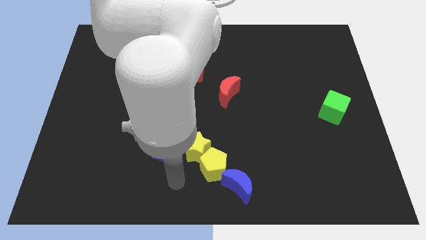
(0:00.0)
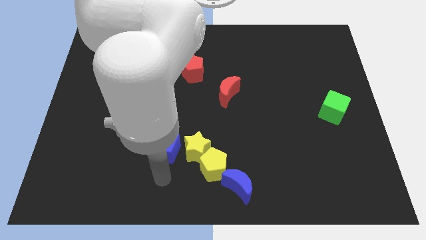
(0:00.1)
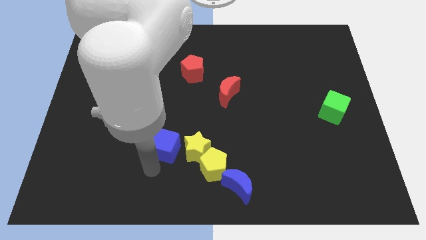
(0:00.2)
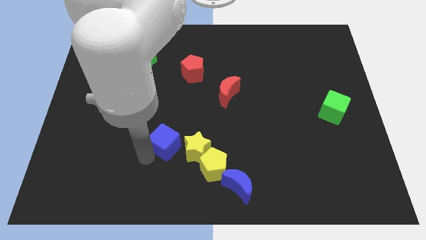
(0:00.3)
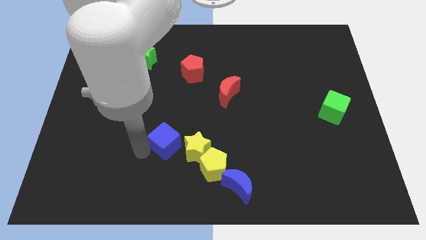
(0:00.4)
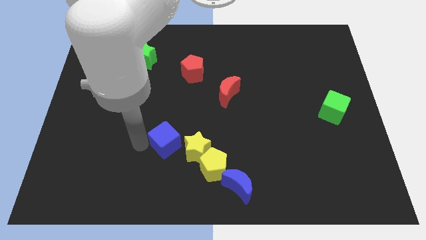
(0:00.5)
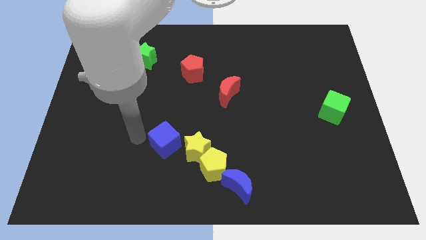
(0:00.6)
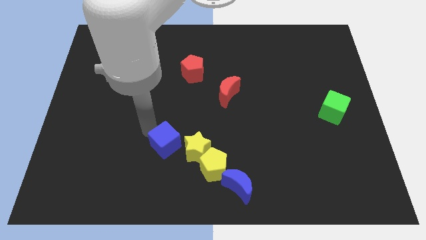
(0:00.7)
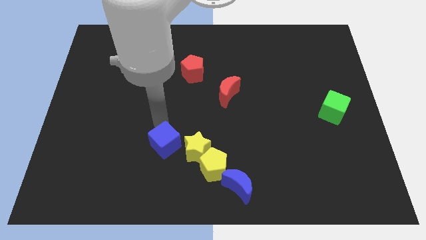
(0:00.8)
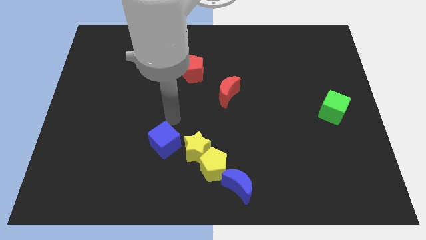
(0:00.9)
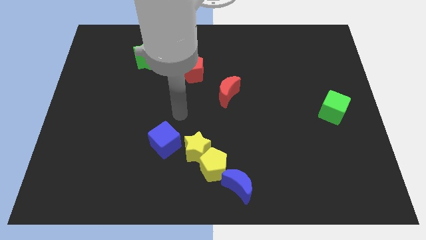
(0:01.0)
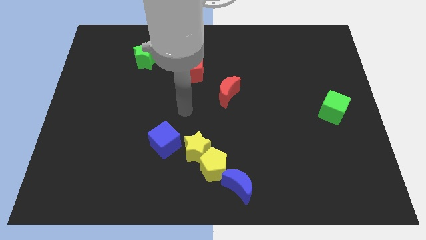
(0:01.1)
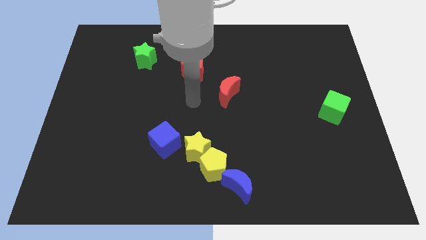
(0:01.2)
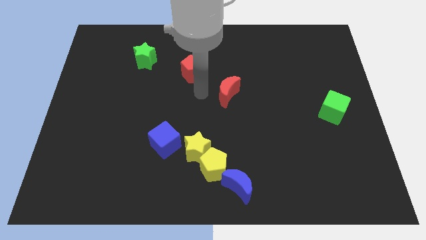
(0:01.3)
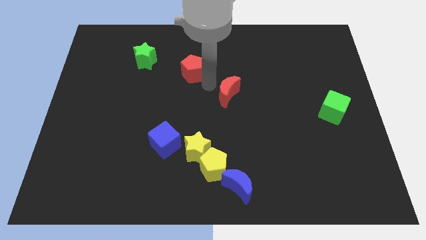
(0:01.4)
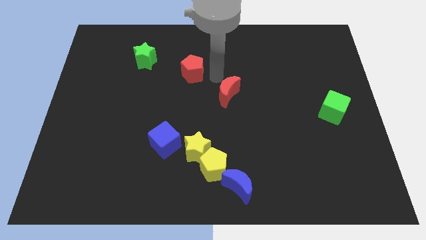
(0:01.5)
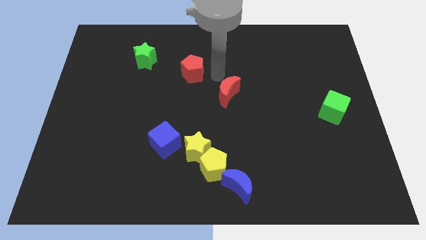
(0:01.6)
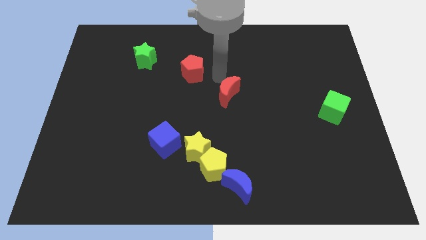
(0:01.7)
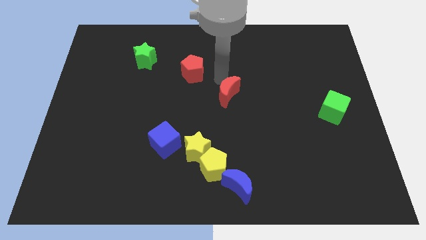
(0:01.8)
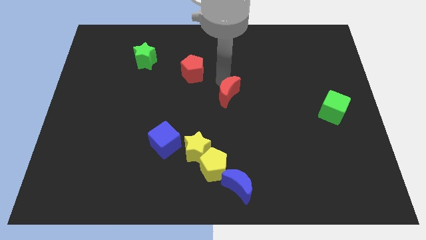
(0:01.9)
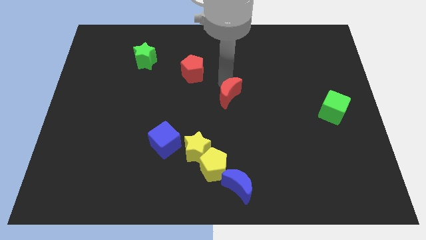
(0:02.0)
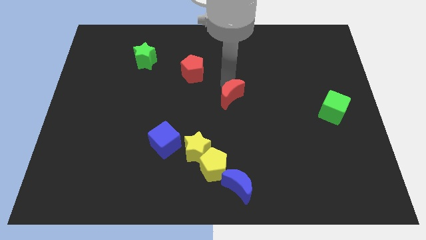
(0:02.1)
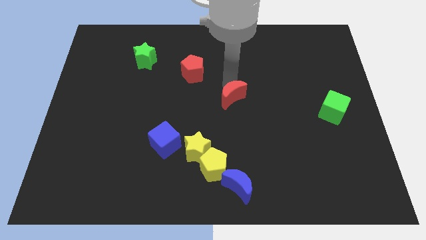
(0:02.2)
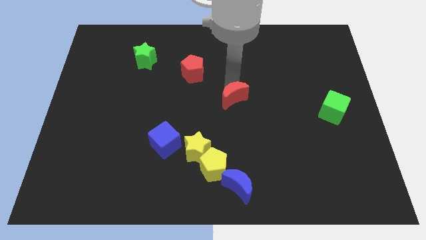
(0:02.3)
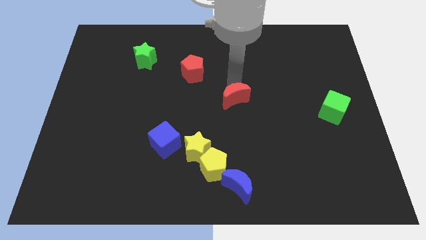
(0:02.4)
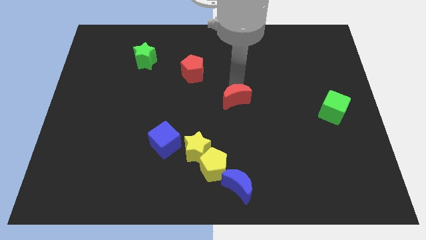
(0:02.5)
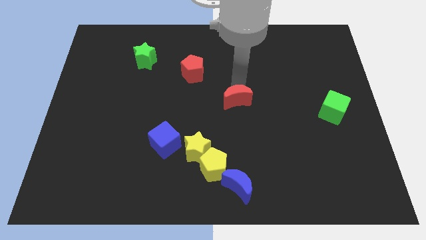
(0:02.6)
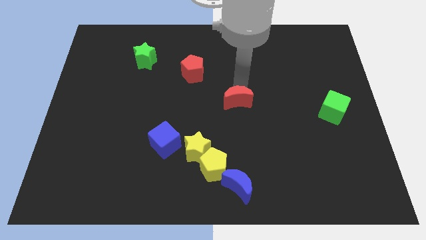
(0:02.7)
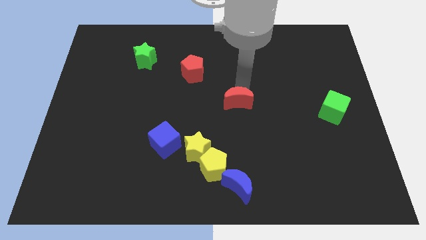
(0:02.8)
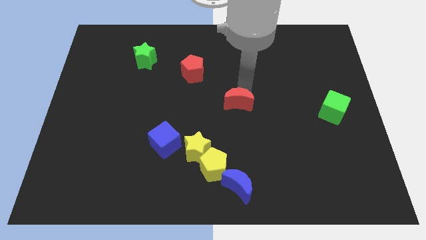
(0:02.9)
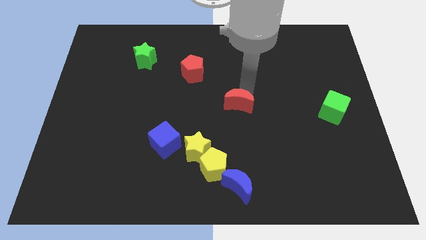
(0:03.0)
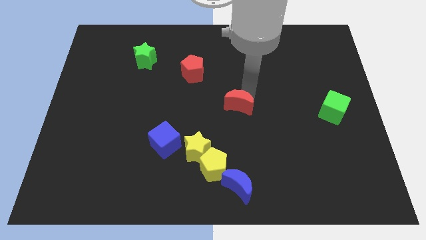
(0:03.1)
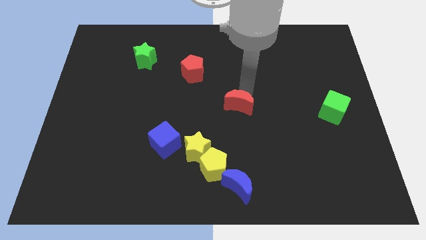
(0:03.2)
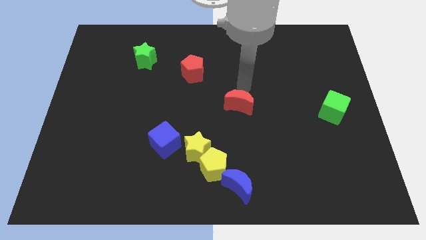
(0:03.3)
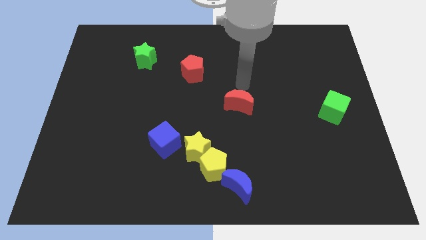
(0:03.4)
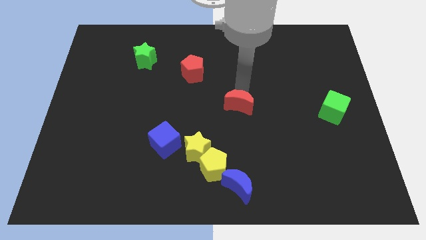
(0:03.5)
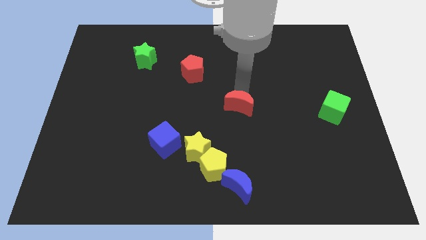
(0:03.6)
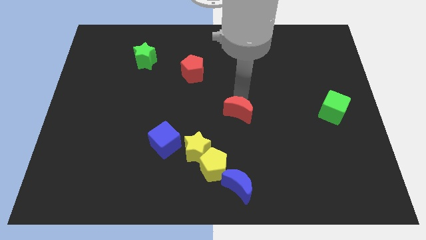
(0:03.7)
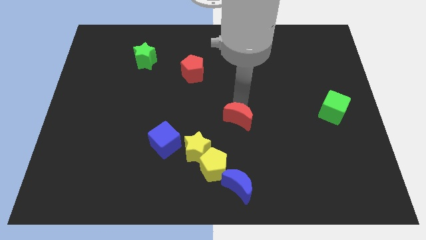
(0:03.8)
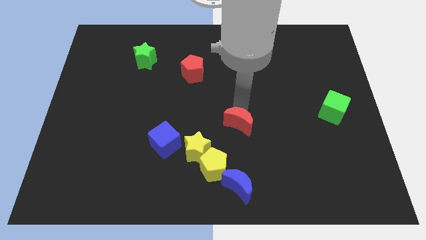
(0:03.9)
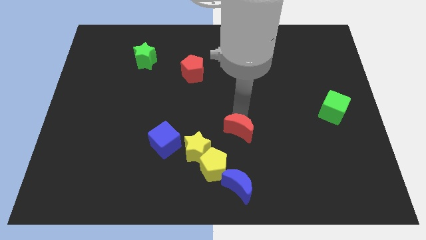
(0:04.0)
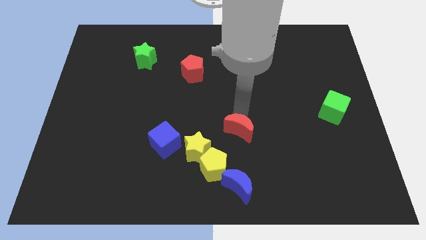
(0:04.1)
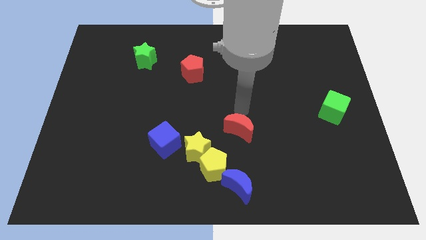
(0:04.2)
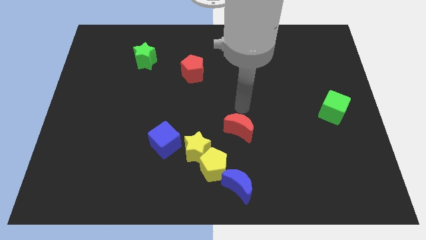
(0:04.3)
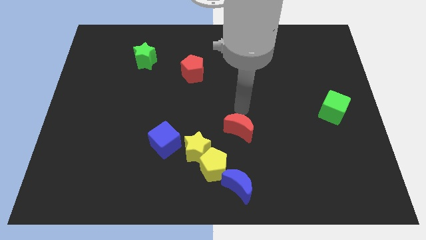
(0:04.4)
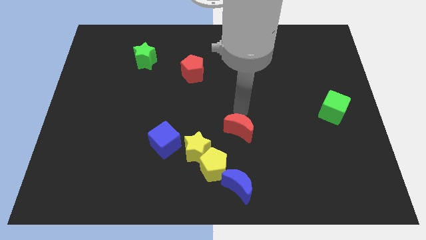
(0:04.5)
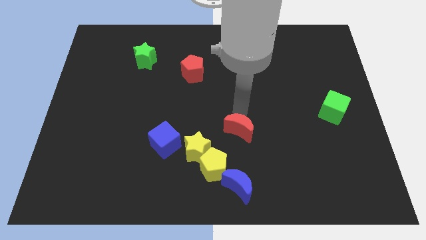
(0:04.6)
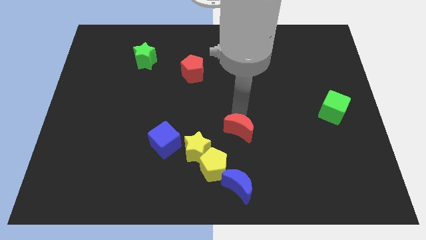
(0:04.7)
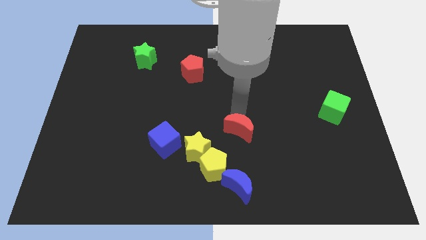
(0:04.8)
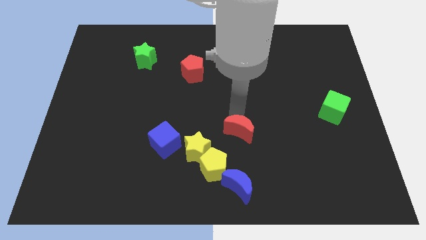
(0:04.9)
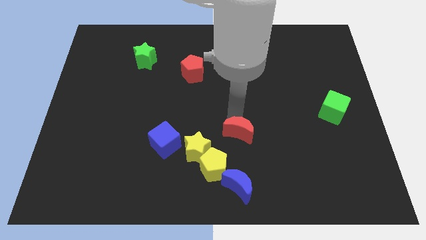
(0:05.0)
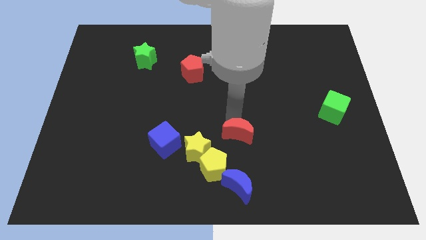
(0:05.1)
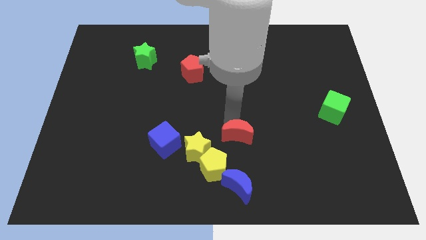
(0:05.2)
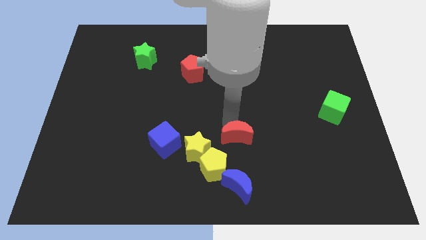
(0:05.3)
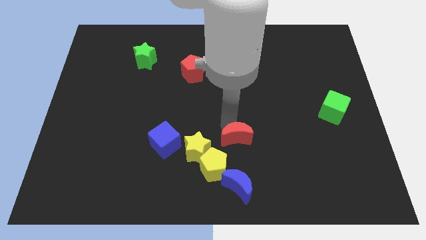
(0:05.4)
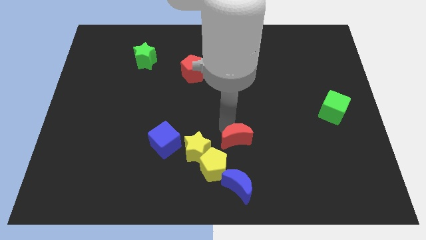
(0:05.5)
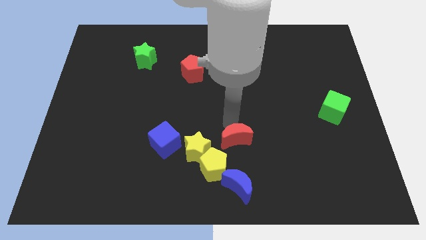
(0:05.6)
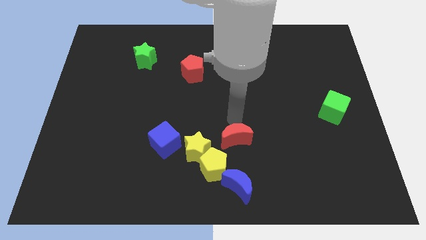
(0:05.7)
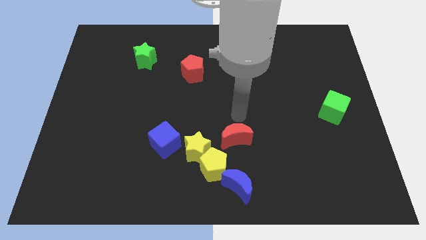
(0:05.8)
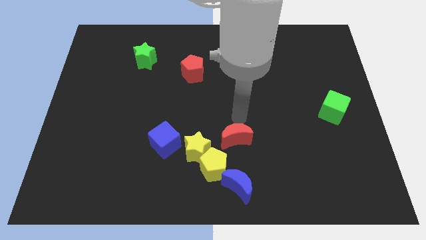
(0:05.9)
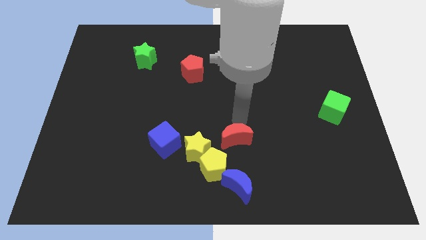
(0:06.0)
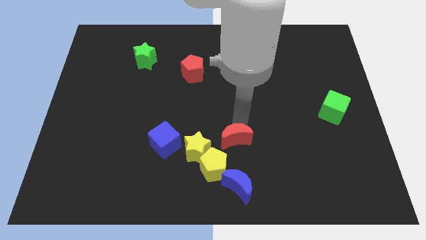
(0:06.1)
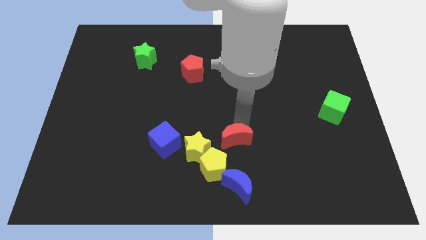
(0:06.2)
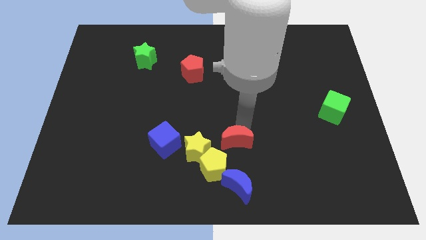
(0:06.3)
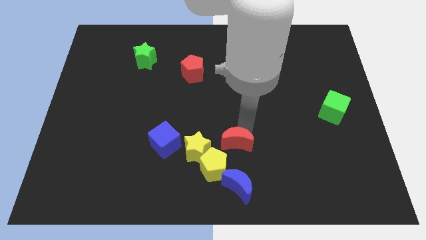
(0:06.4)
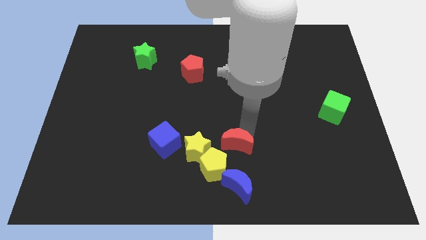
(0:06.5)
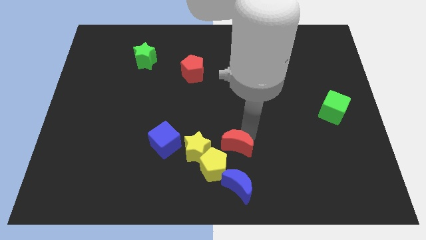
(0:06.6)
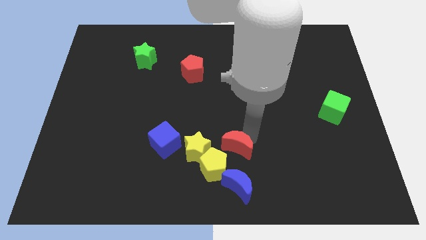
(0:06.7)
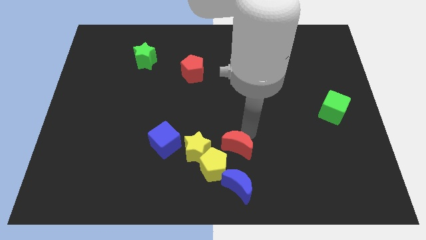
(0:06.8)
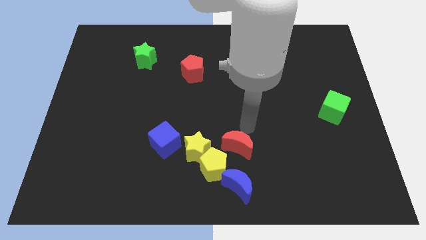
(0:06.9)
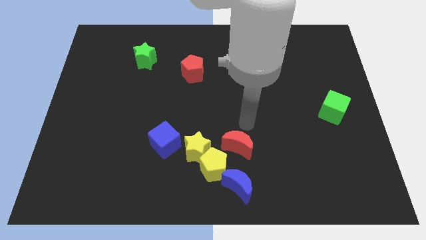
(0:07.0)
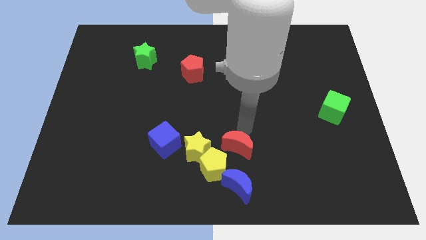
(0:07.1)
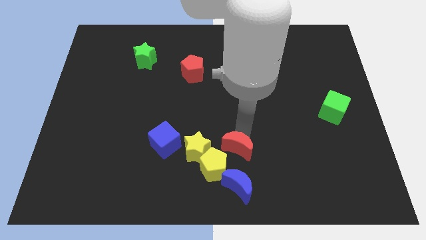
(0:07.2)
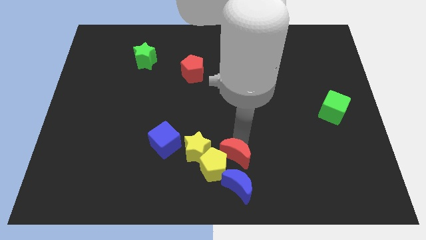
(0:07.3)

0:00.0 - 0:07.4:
push the red moon towards the yellow pentagon
